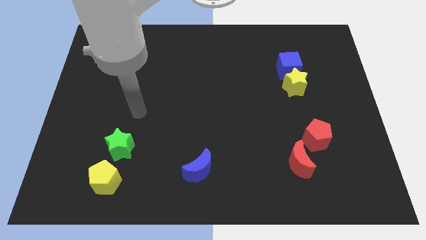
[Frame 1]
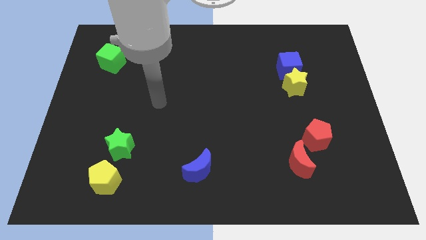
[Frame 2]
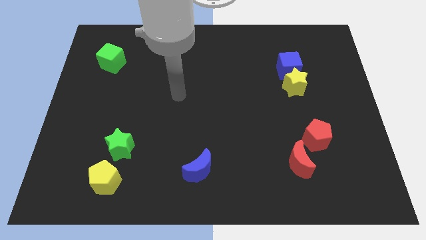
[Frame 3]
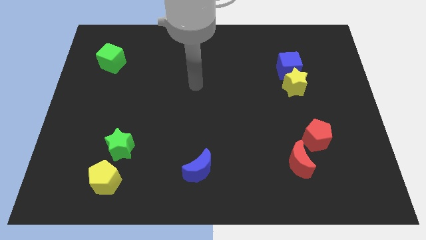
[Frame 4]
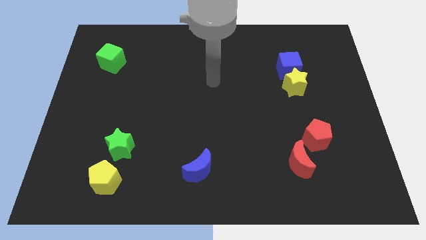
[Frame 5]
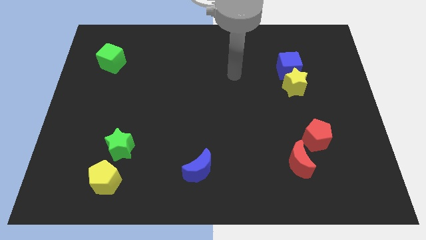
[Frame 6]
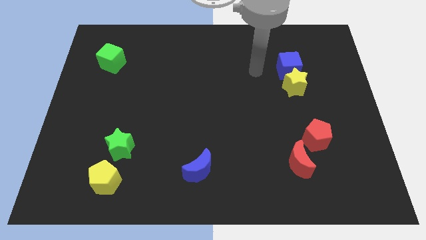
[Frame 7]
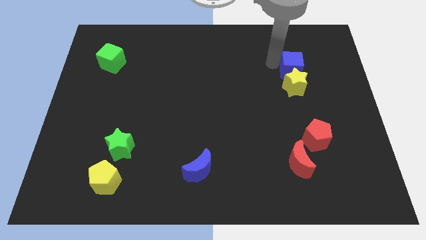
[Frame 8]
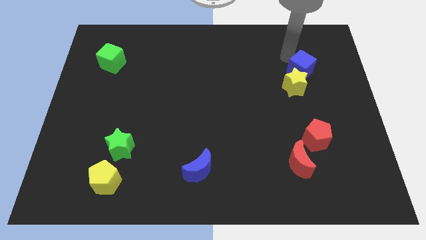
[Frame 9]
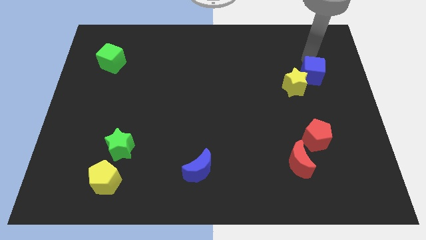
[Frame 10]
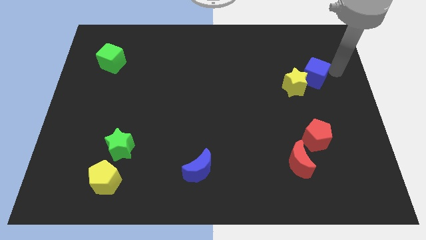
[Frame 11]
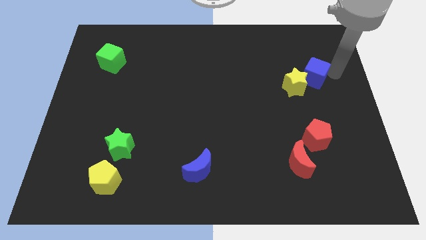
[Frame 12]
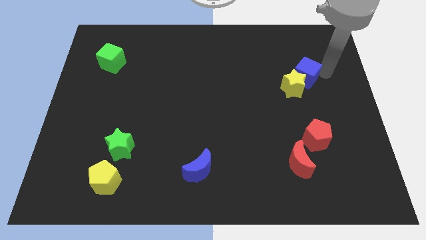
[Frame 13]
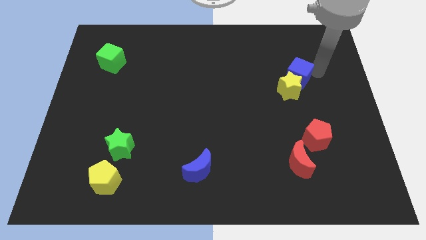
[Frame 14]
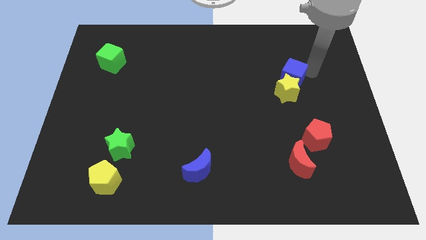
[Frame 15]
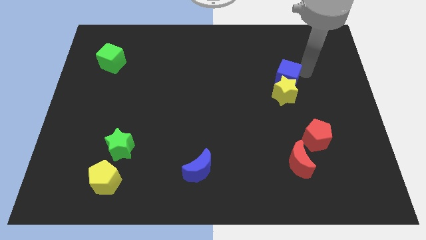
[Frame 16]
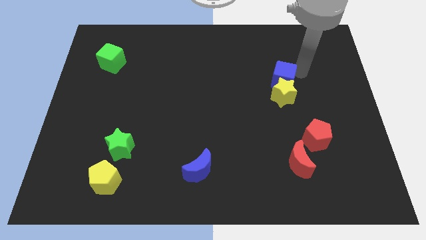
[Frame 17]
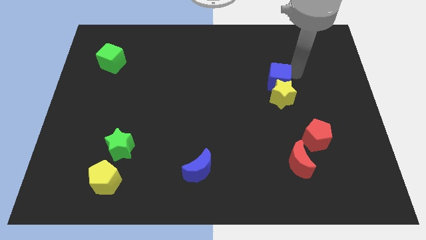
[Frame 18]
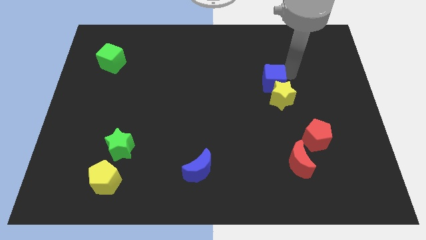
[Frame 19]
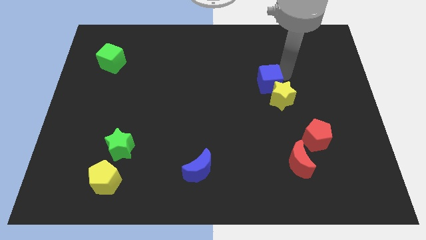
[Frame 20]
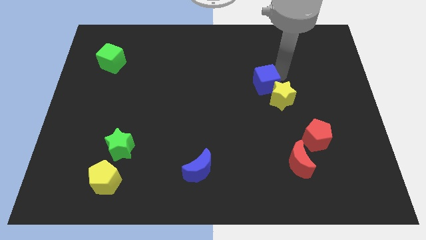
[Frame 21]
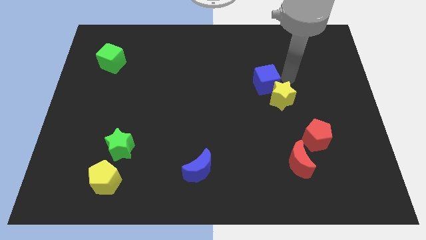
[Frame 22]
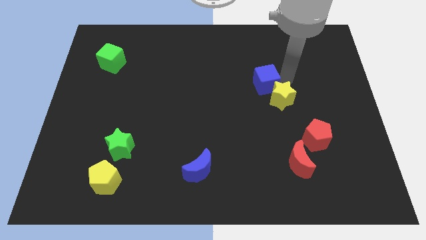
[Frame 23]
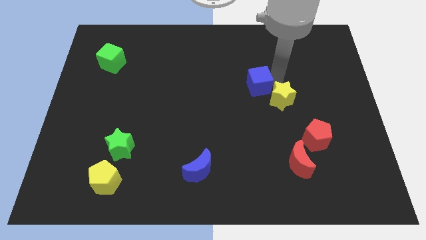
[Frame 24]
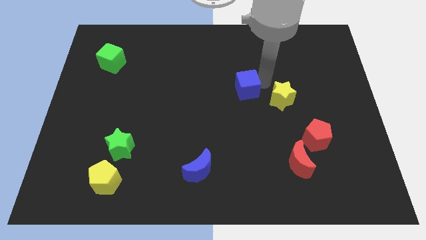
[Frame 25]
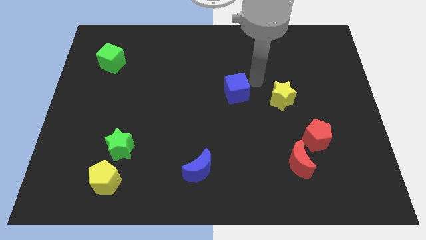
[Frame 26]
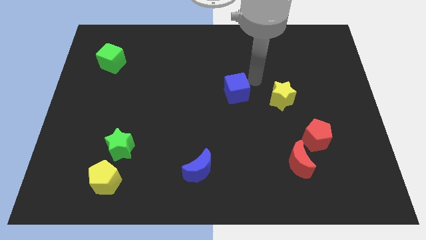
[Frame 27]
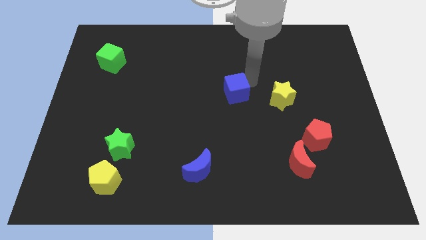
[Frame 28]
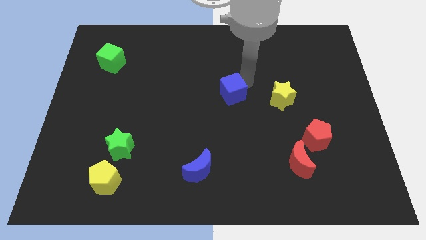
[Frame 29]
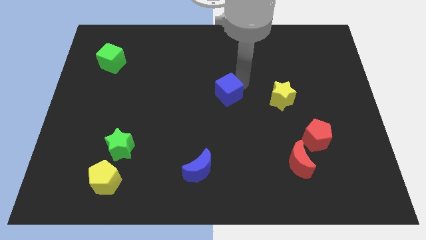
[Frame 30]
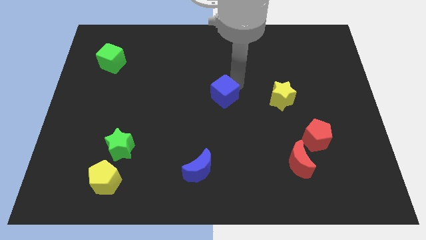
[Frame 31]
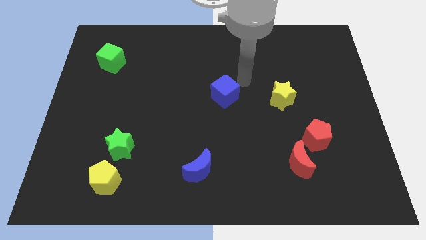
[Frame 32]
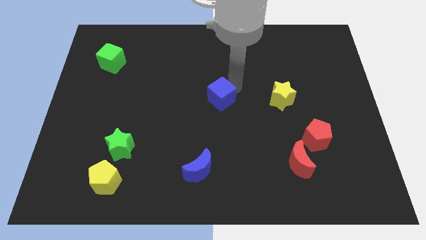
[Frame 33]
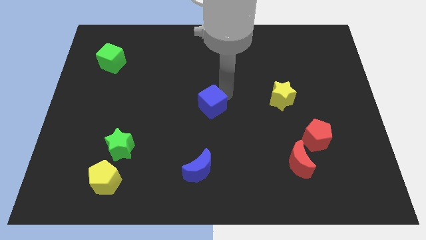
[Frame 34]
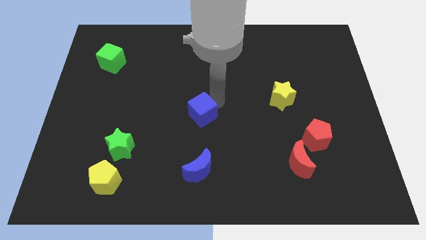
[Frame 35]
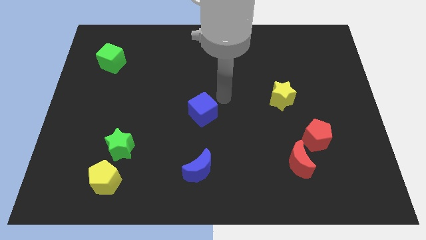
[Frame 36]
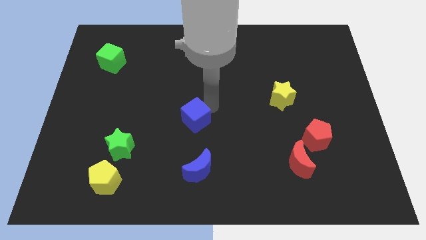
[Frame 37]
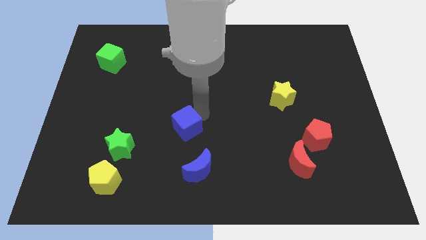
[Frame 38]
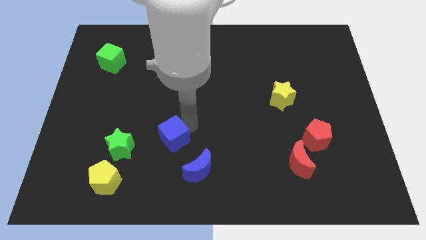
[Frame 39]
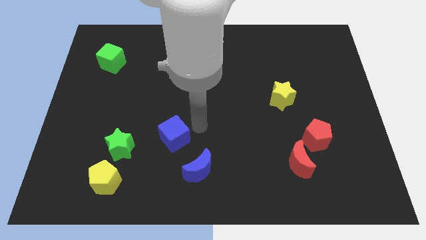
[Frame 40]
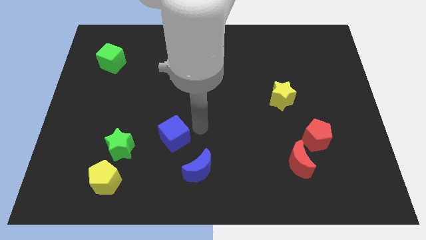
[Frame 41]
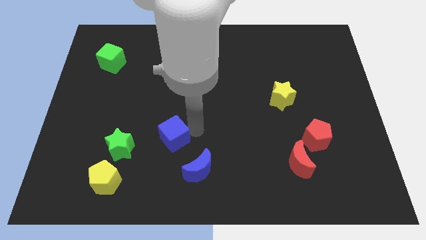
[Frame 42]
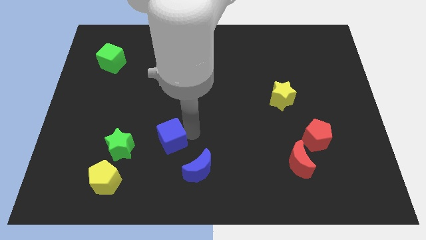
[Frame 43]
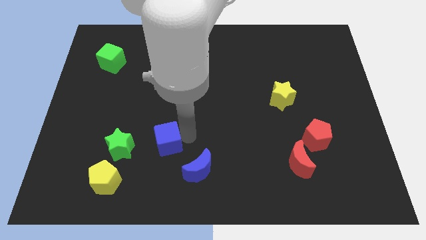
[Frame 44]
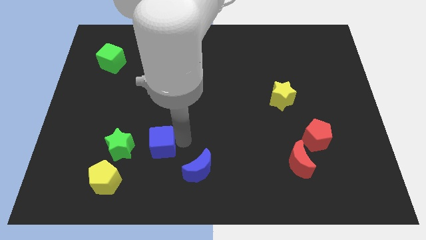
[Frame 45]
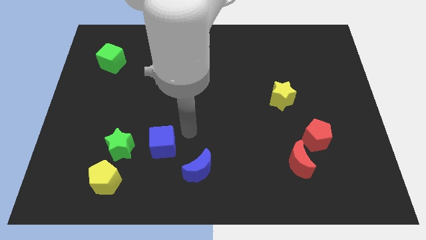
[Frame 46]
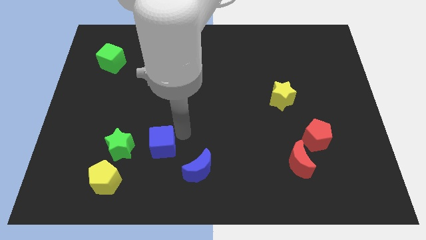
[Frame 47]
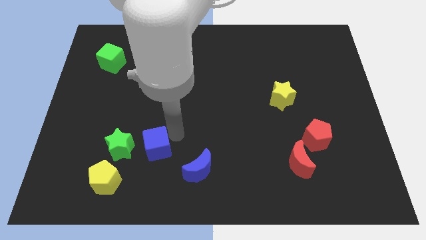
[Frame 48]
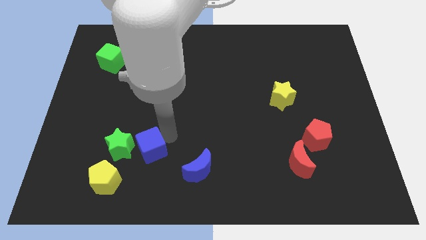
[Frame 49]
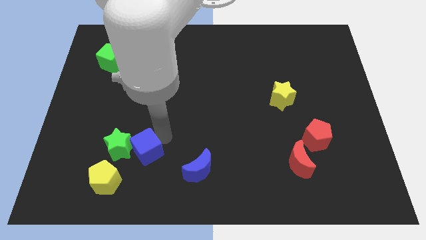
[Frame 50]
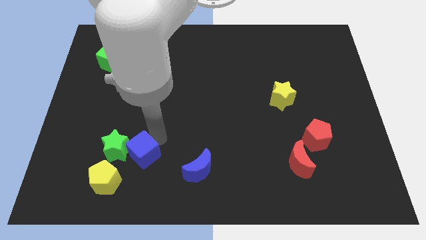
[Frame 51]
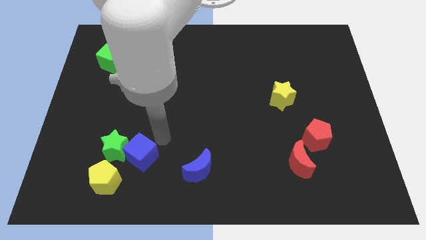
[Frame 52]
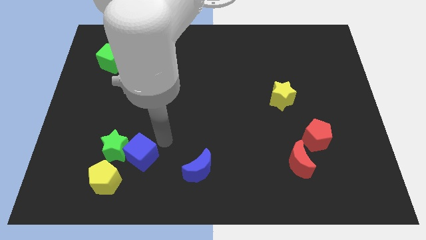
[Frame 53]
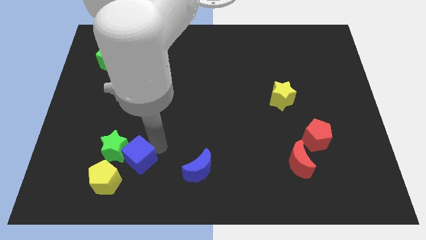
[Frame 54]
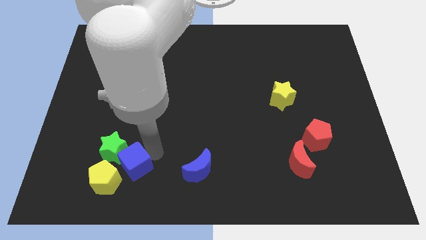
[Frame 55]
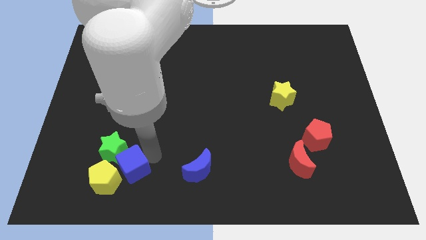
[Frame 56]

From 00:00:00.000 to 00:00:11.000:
put the blue cube close to the yellow pentagon

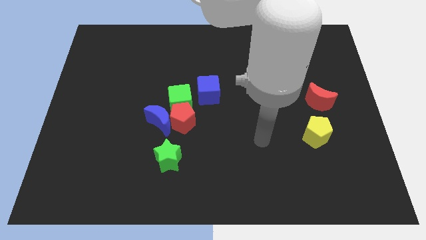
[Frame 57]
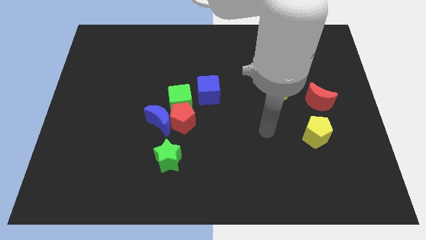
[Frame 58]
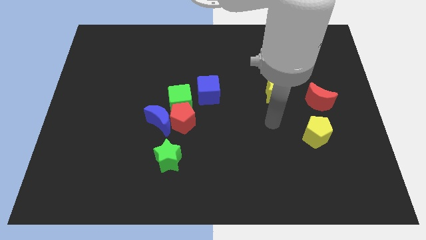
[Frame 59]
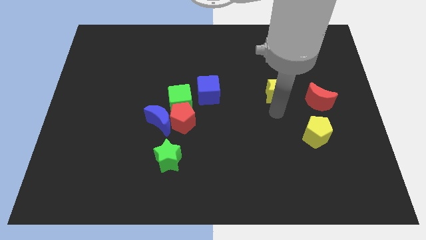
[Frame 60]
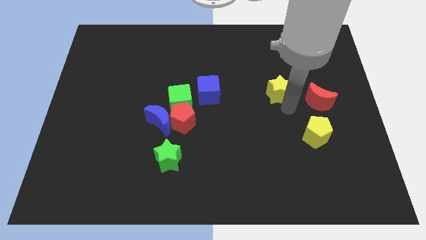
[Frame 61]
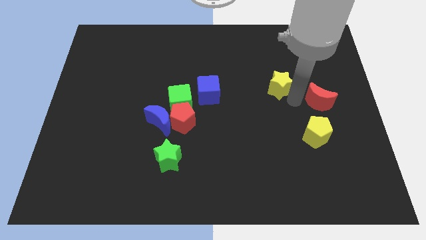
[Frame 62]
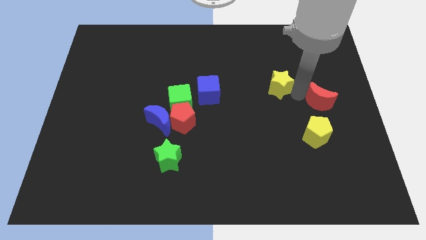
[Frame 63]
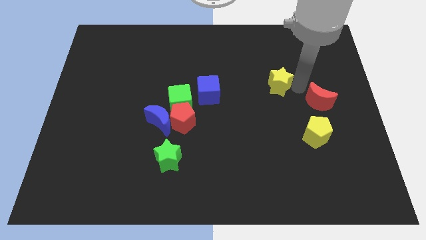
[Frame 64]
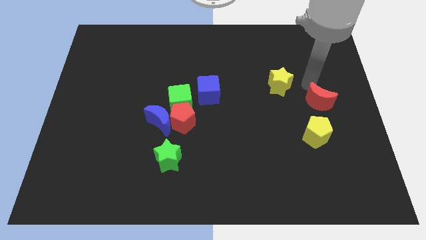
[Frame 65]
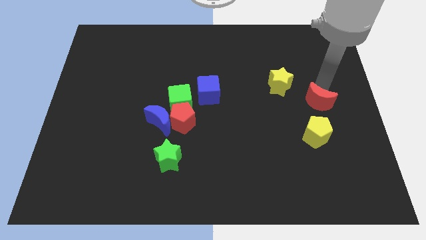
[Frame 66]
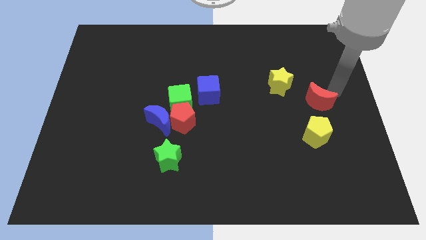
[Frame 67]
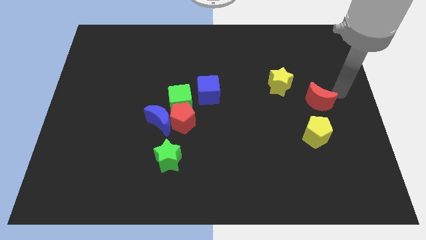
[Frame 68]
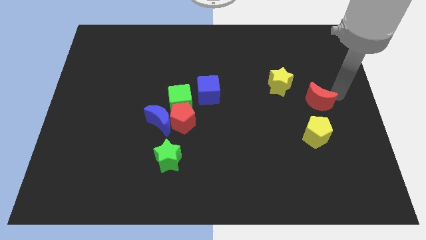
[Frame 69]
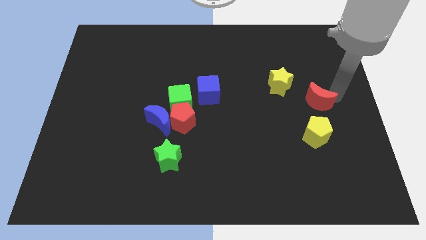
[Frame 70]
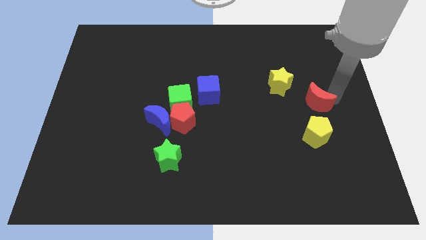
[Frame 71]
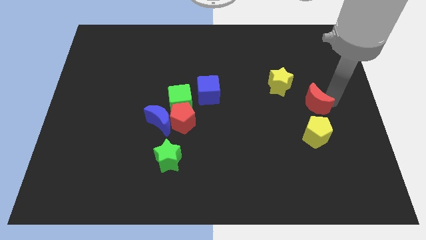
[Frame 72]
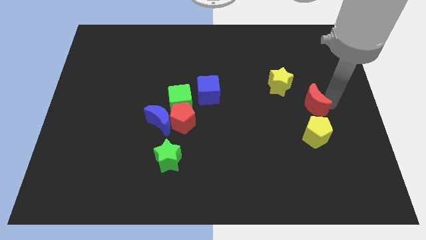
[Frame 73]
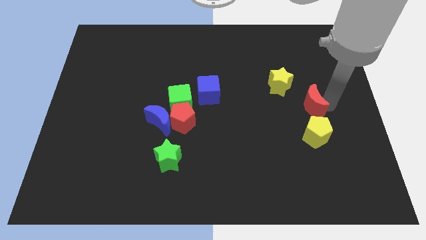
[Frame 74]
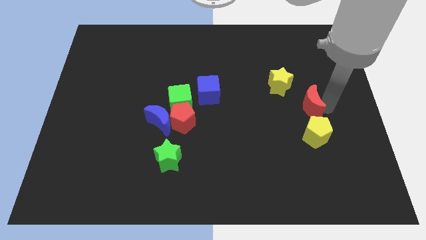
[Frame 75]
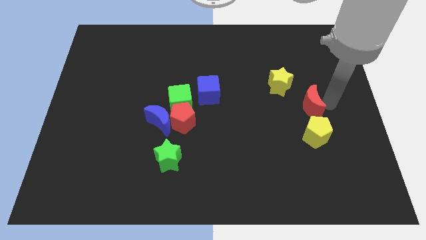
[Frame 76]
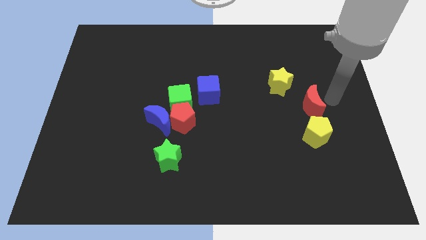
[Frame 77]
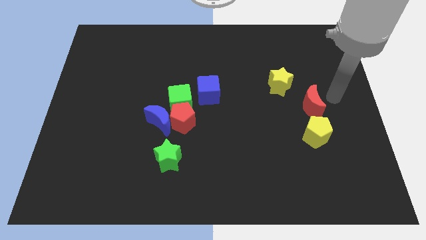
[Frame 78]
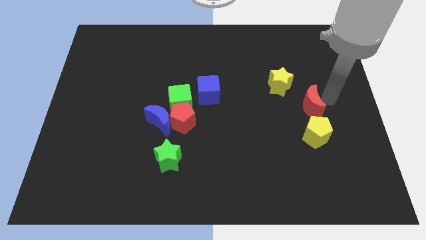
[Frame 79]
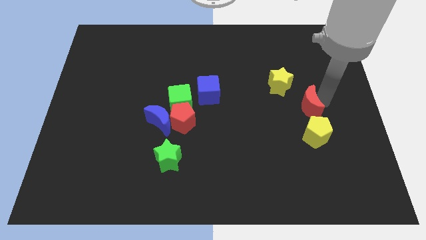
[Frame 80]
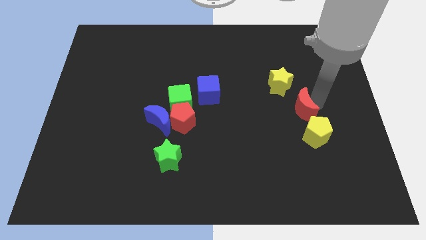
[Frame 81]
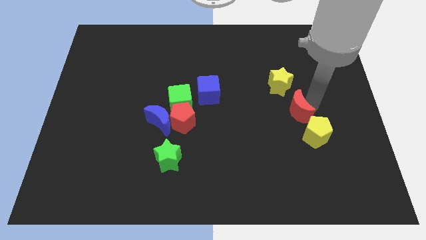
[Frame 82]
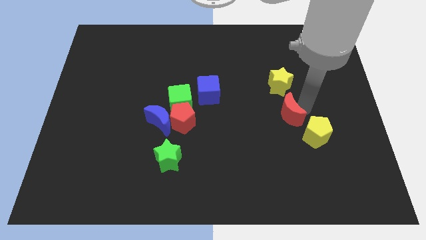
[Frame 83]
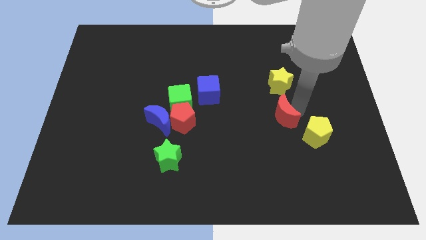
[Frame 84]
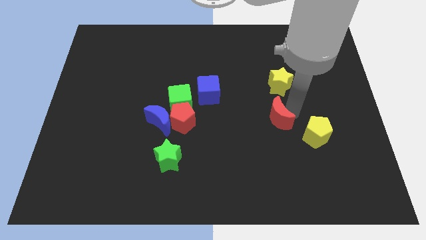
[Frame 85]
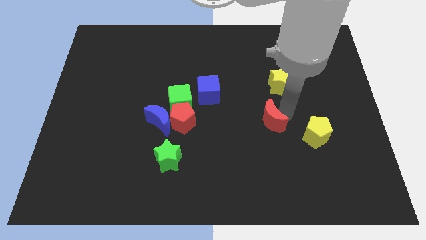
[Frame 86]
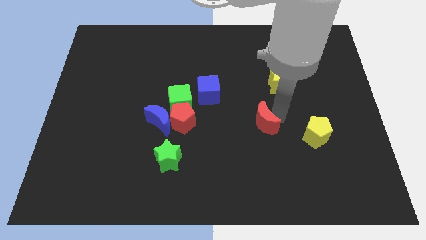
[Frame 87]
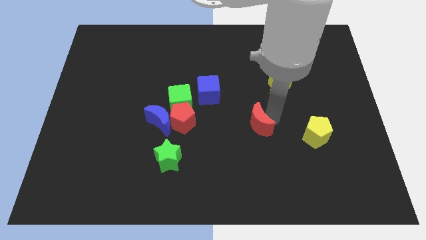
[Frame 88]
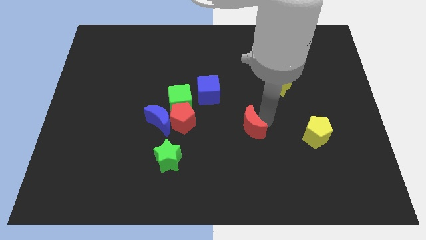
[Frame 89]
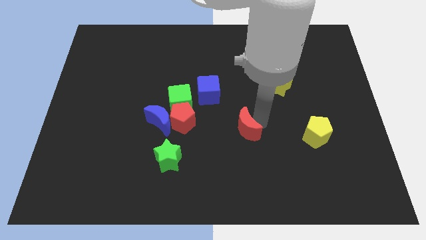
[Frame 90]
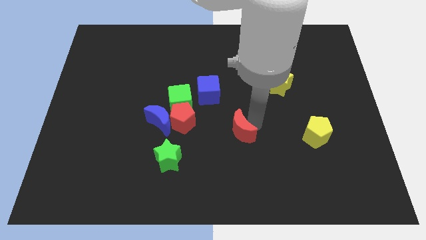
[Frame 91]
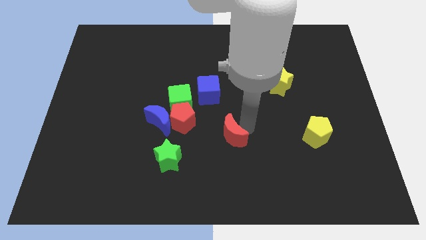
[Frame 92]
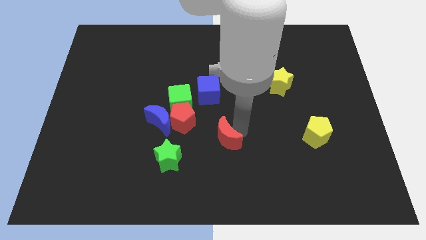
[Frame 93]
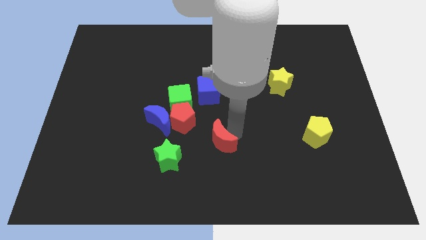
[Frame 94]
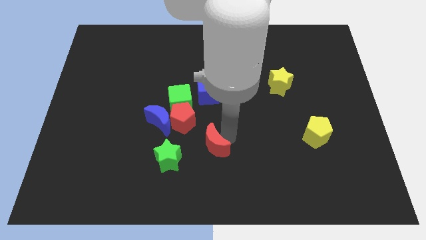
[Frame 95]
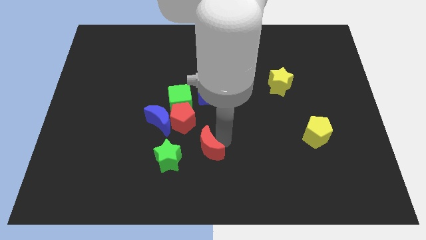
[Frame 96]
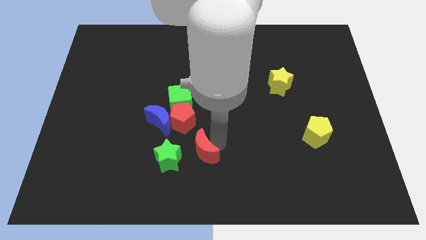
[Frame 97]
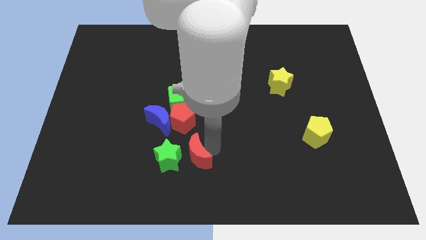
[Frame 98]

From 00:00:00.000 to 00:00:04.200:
push the red moon to the green star
